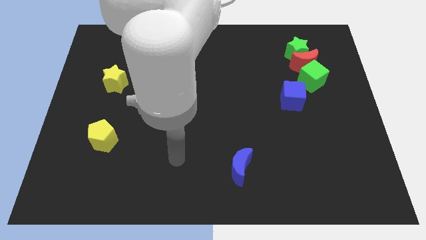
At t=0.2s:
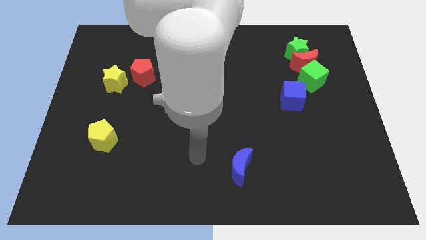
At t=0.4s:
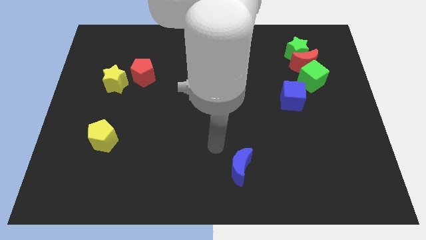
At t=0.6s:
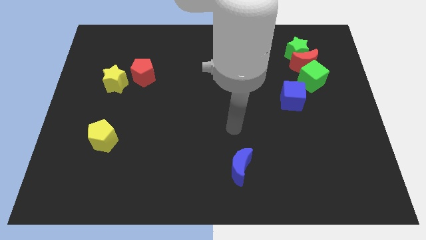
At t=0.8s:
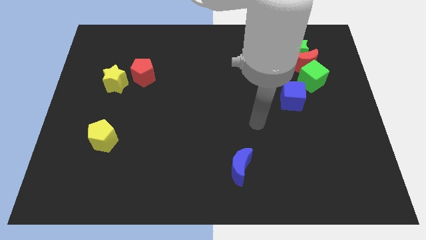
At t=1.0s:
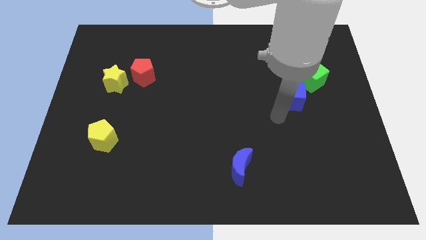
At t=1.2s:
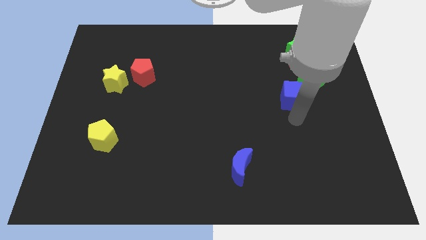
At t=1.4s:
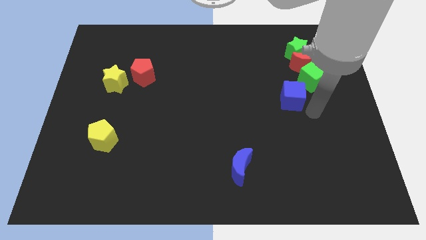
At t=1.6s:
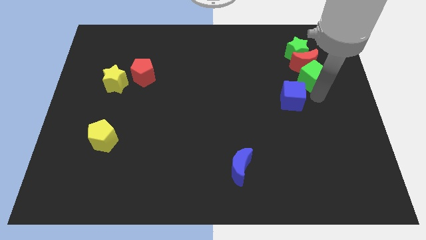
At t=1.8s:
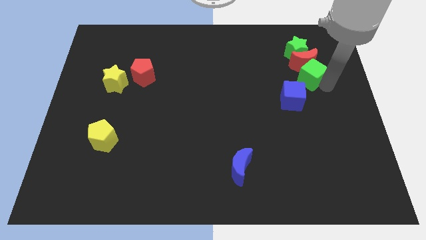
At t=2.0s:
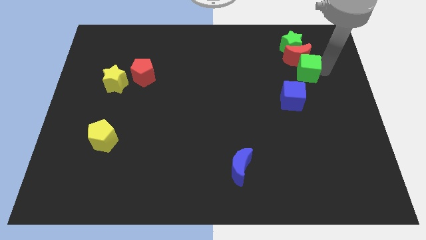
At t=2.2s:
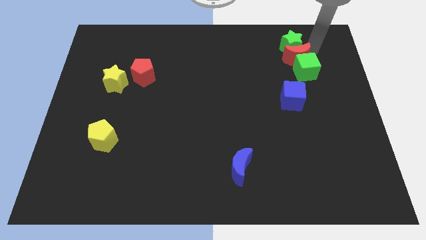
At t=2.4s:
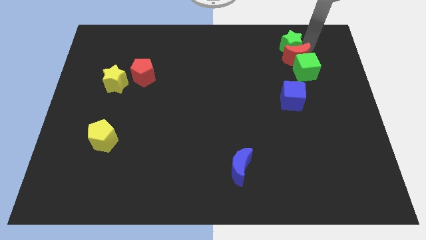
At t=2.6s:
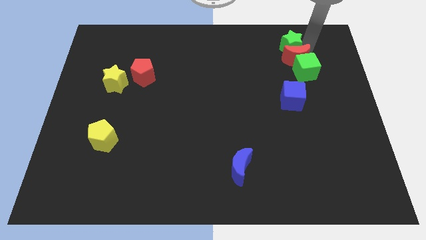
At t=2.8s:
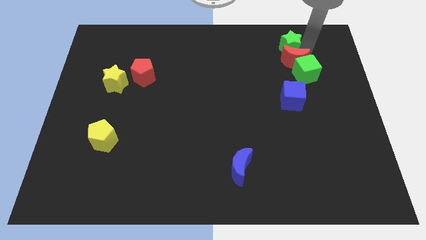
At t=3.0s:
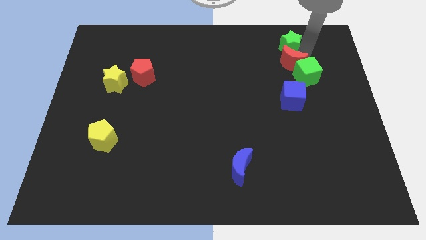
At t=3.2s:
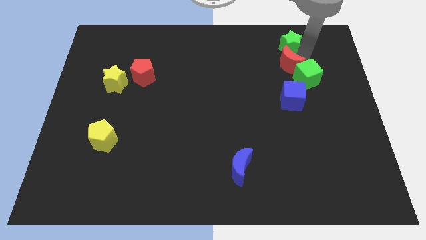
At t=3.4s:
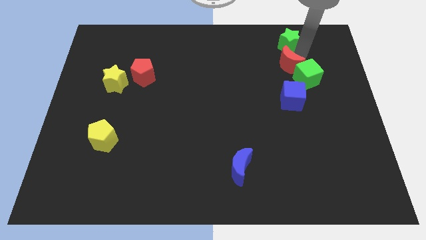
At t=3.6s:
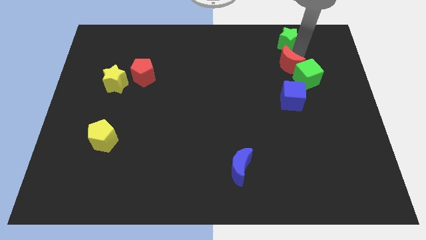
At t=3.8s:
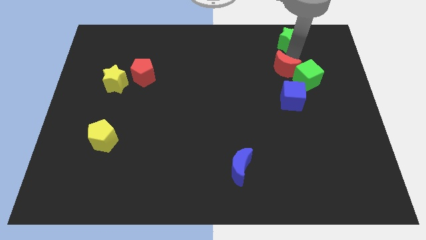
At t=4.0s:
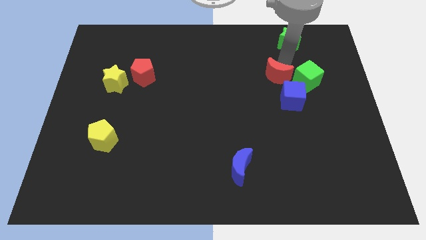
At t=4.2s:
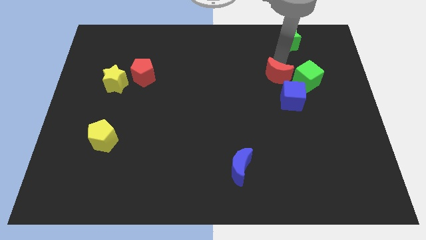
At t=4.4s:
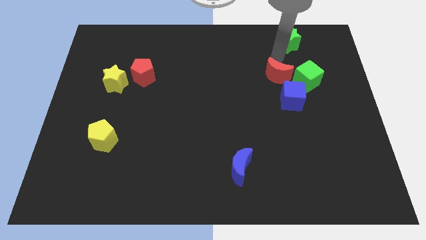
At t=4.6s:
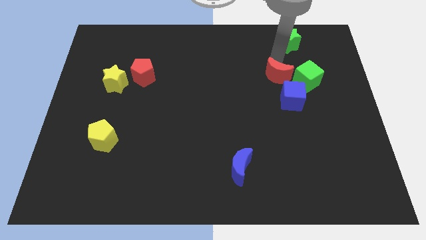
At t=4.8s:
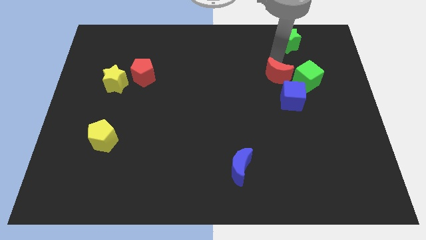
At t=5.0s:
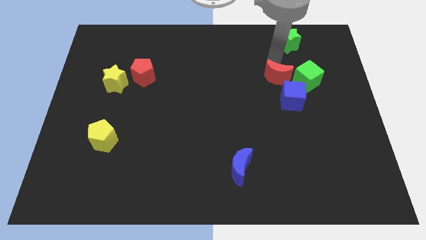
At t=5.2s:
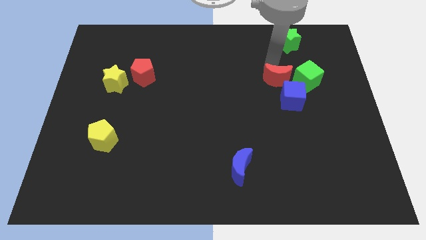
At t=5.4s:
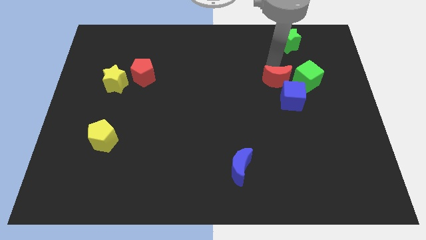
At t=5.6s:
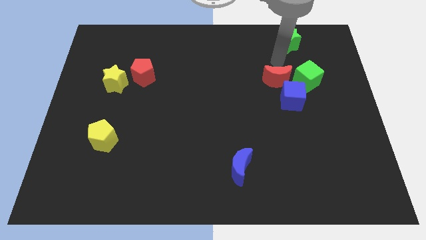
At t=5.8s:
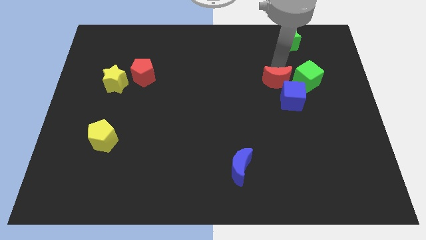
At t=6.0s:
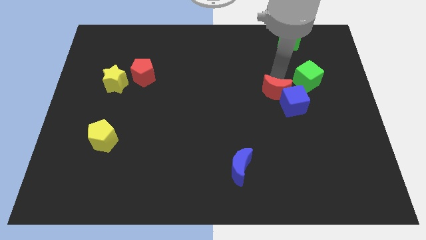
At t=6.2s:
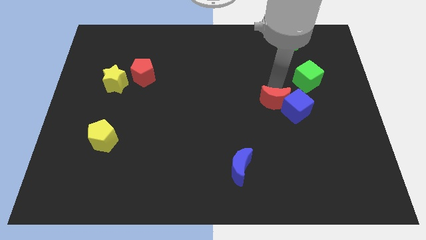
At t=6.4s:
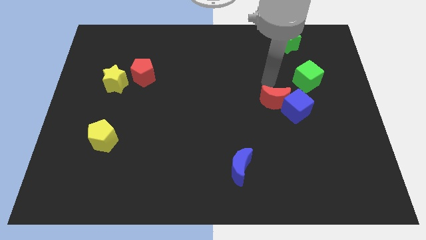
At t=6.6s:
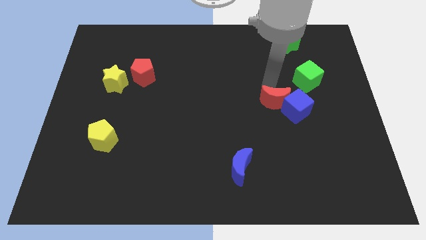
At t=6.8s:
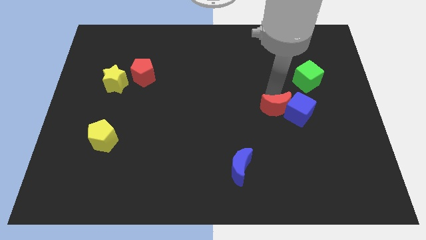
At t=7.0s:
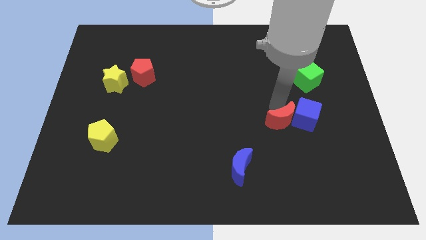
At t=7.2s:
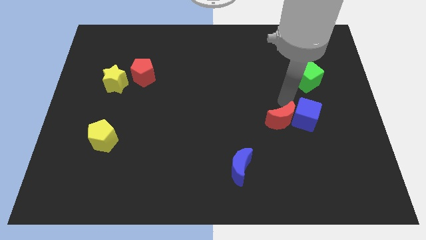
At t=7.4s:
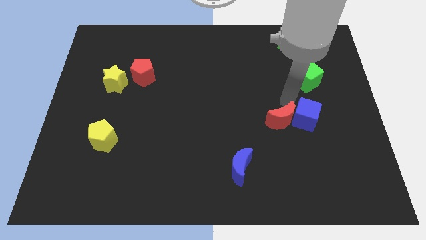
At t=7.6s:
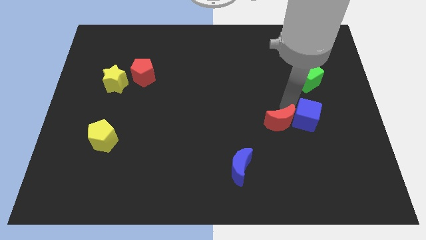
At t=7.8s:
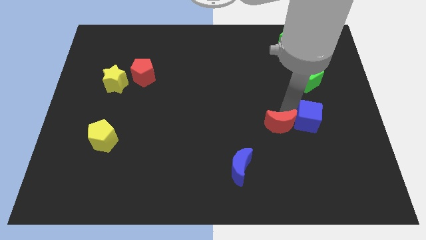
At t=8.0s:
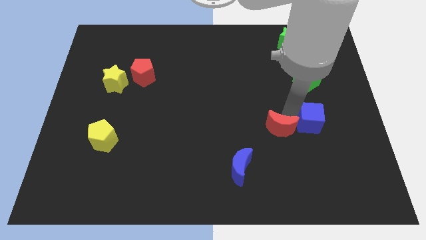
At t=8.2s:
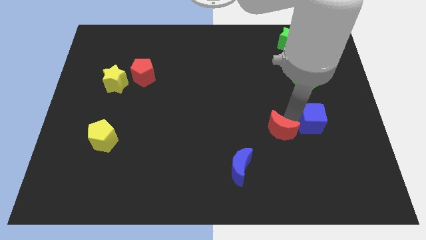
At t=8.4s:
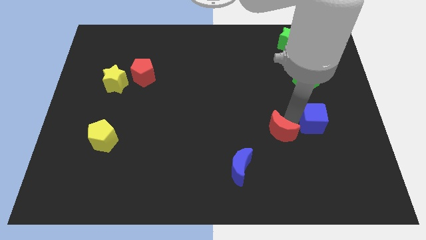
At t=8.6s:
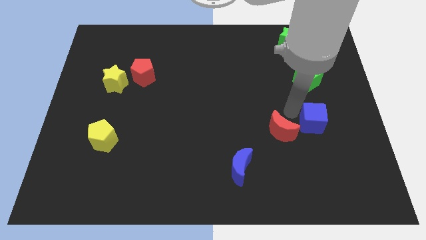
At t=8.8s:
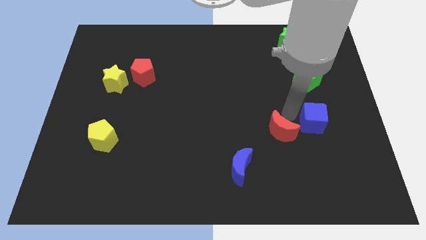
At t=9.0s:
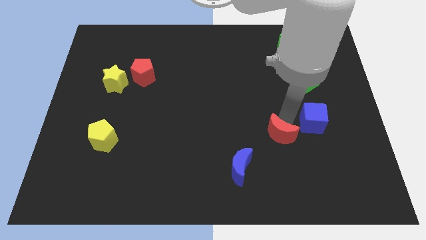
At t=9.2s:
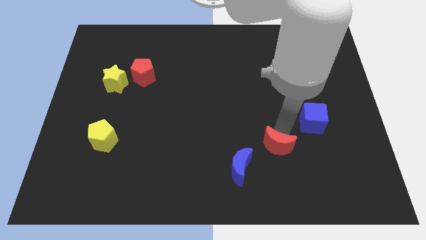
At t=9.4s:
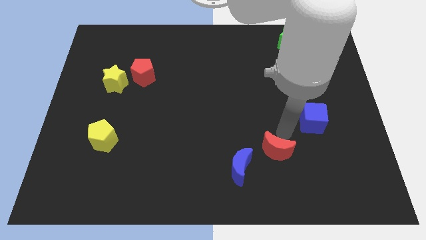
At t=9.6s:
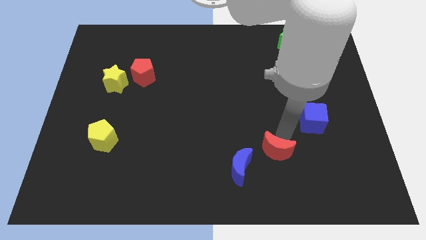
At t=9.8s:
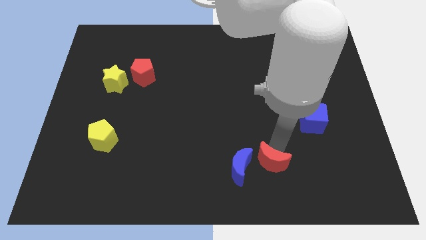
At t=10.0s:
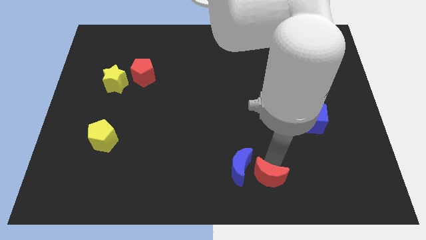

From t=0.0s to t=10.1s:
put the red moon to the bottom

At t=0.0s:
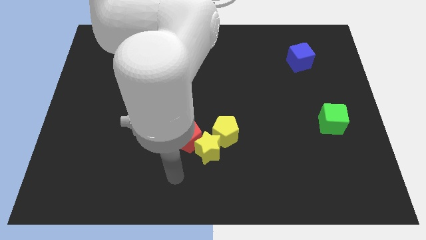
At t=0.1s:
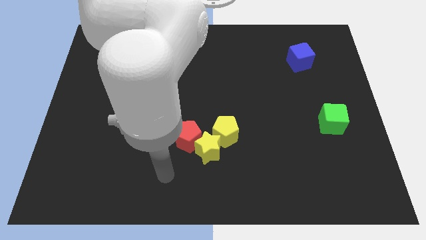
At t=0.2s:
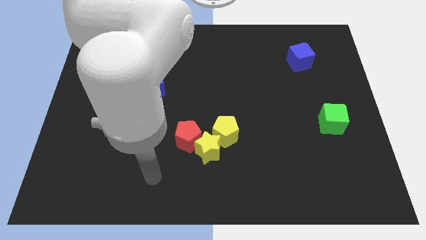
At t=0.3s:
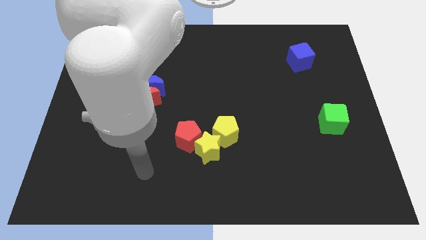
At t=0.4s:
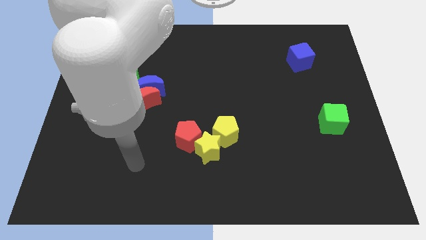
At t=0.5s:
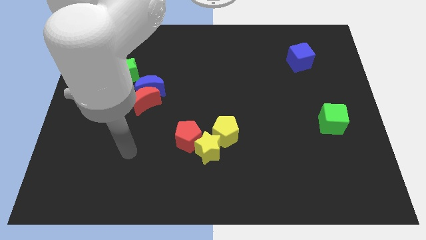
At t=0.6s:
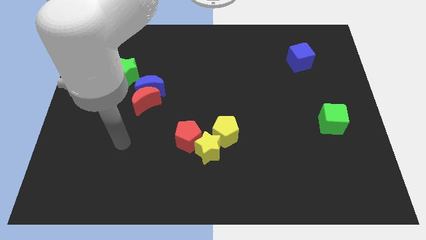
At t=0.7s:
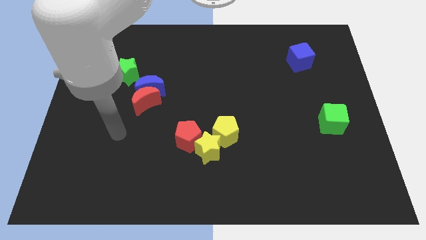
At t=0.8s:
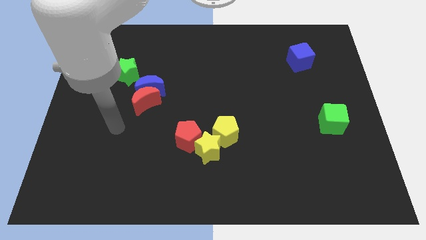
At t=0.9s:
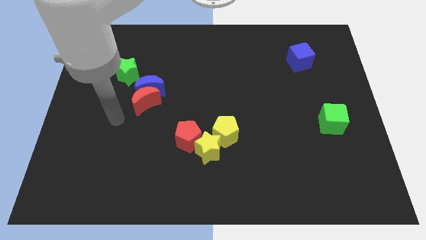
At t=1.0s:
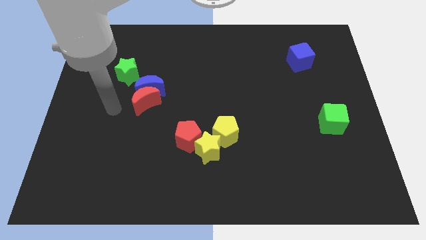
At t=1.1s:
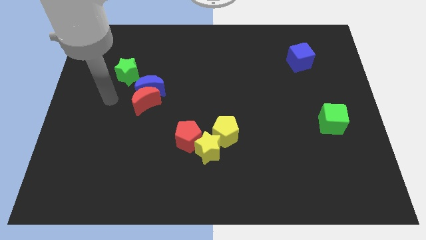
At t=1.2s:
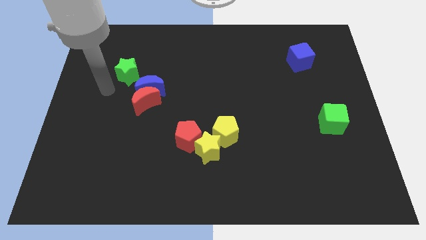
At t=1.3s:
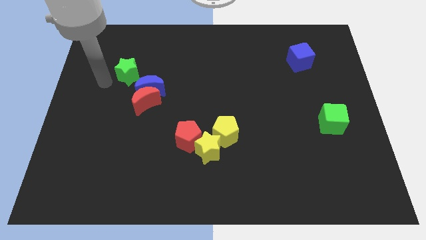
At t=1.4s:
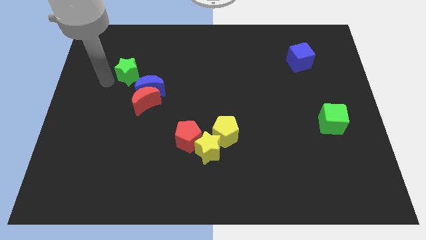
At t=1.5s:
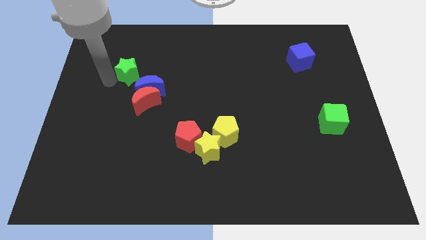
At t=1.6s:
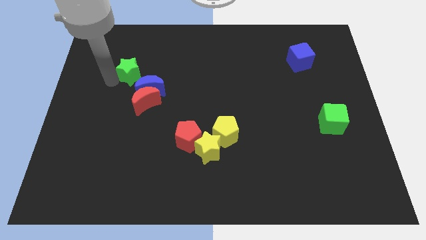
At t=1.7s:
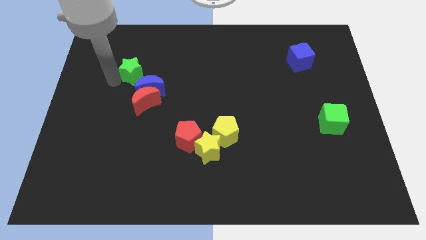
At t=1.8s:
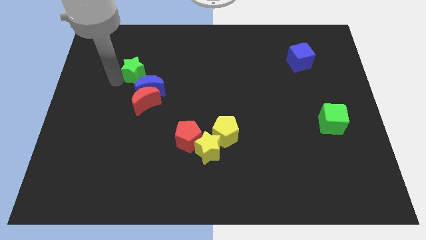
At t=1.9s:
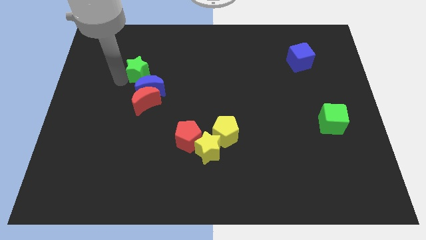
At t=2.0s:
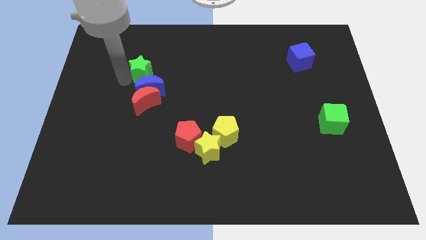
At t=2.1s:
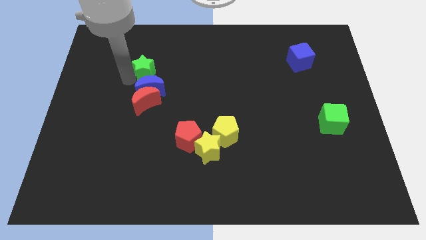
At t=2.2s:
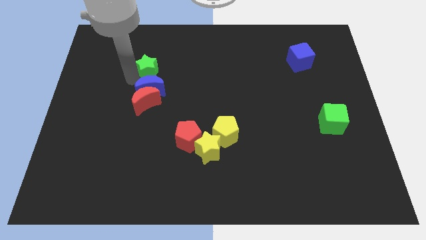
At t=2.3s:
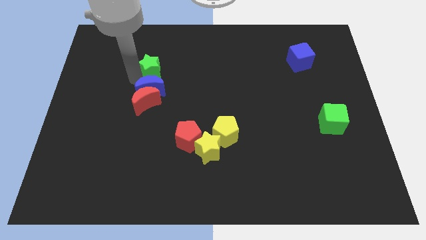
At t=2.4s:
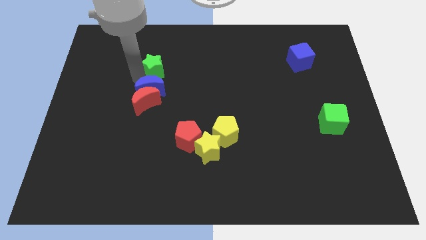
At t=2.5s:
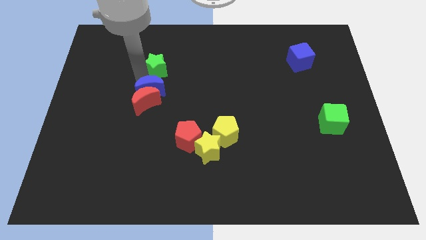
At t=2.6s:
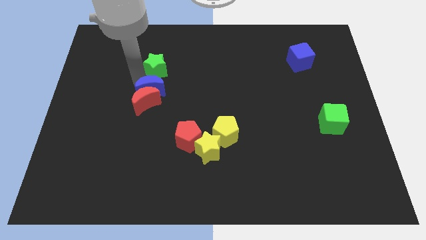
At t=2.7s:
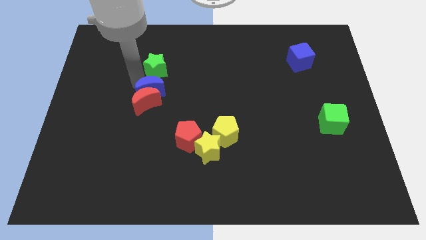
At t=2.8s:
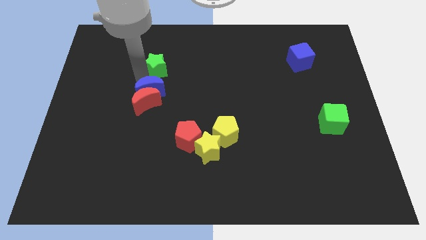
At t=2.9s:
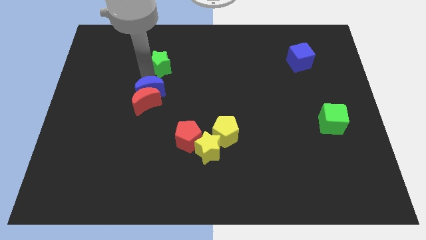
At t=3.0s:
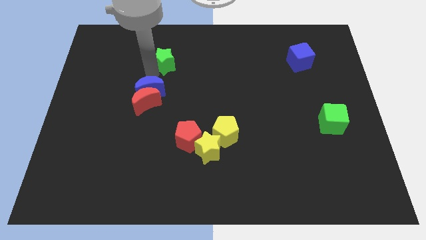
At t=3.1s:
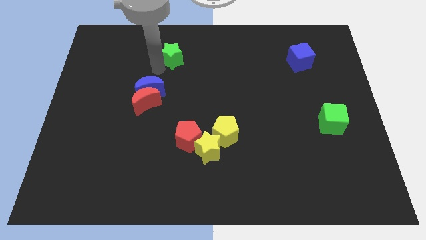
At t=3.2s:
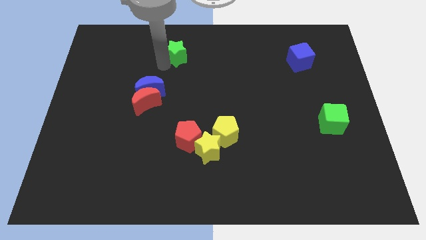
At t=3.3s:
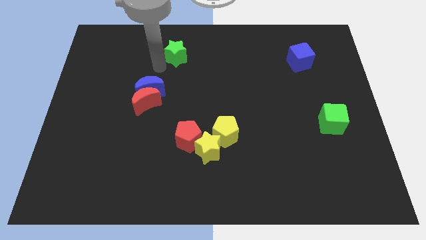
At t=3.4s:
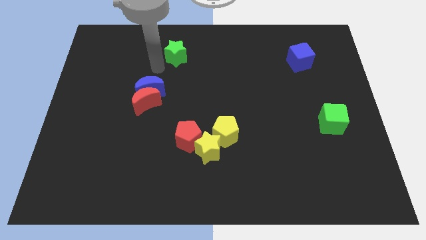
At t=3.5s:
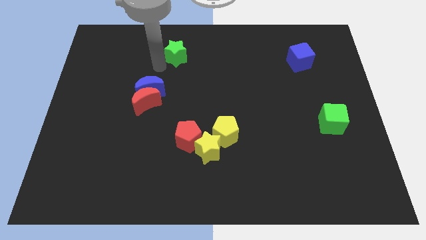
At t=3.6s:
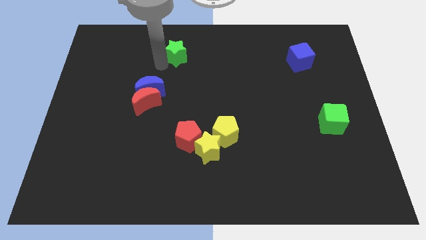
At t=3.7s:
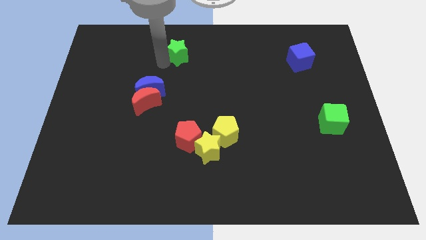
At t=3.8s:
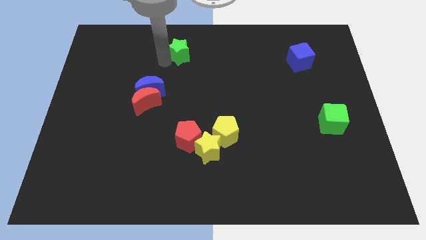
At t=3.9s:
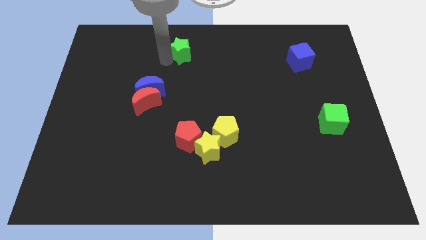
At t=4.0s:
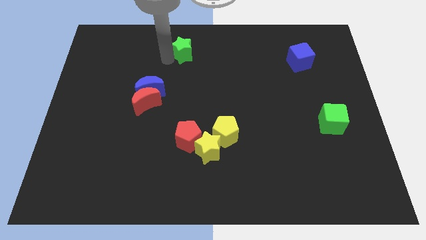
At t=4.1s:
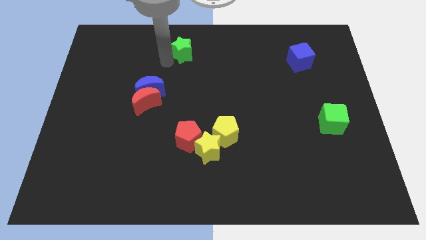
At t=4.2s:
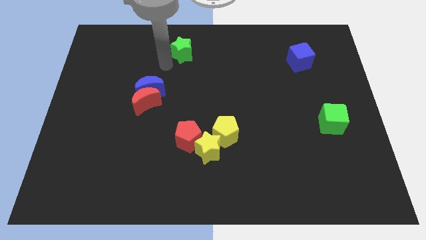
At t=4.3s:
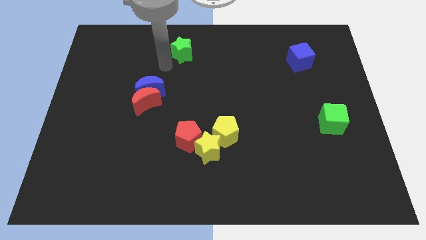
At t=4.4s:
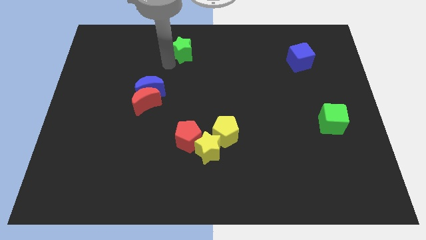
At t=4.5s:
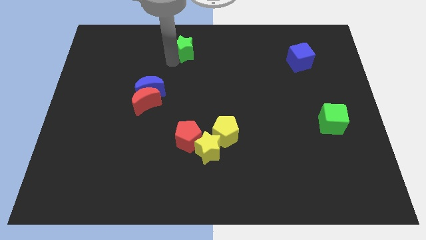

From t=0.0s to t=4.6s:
slide the green star to the towards your base
